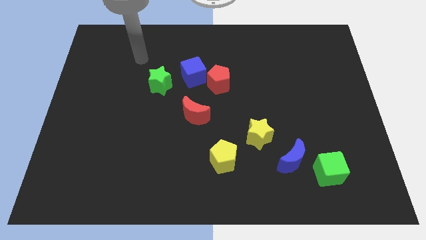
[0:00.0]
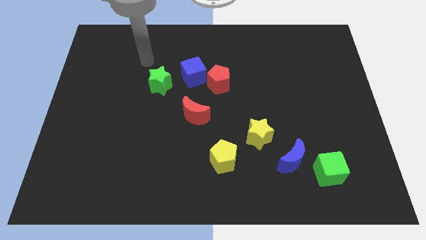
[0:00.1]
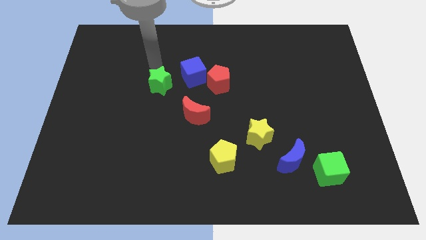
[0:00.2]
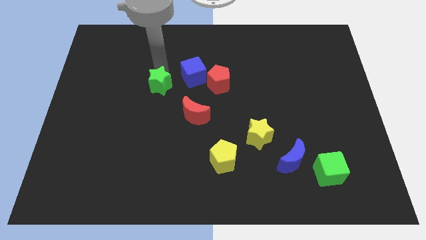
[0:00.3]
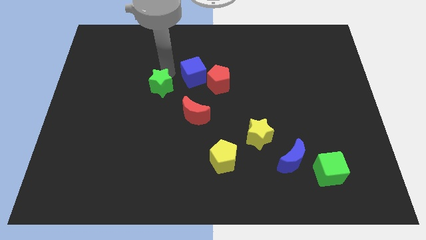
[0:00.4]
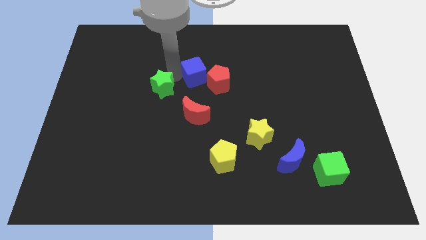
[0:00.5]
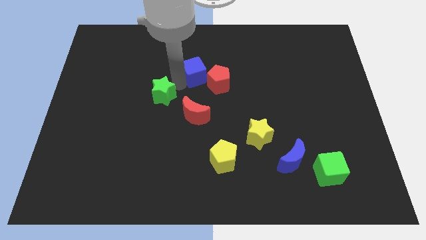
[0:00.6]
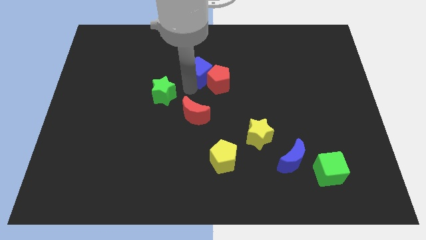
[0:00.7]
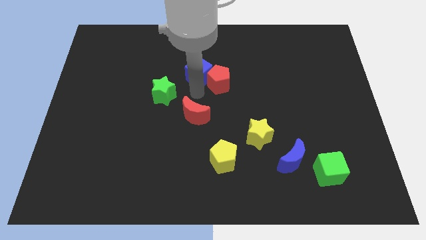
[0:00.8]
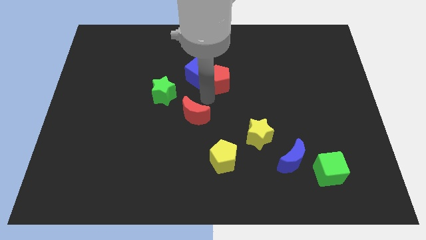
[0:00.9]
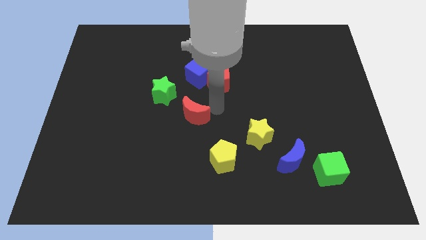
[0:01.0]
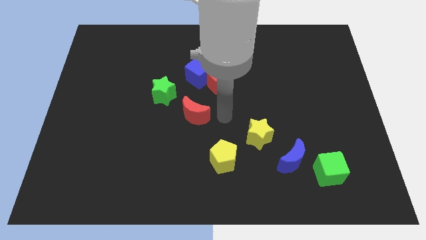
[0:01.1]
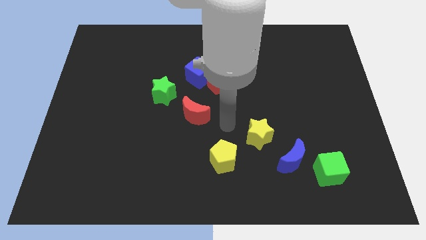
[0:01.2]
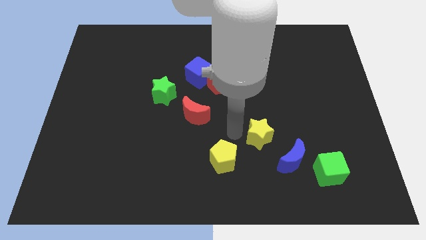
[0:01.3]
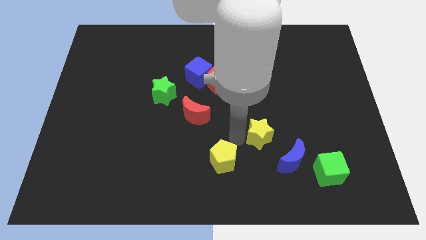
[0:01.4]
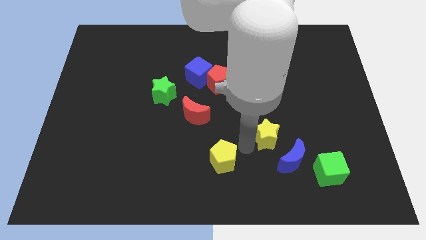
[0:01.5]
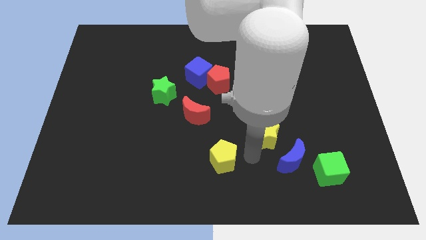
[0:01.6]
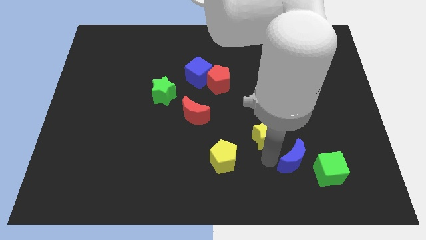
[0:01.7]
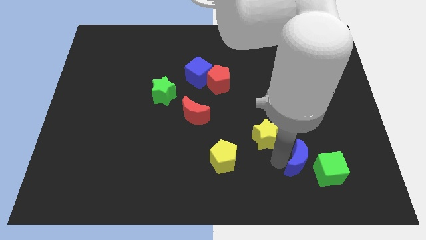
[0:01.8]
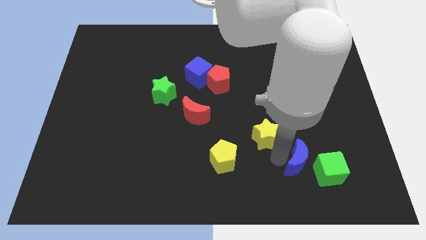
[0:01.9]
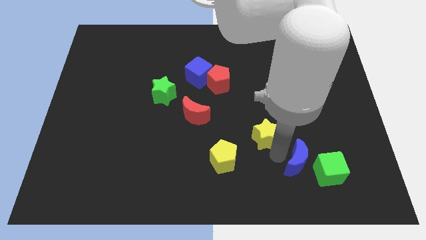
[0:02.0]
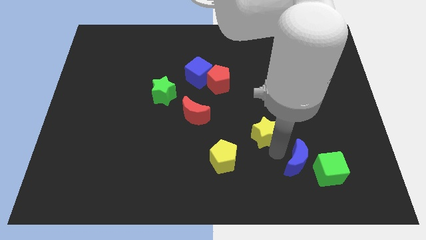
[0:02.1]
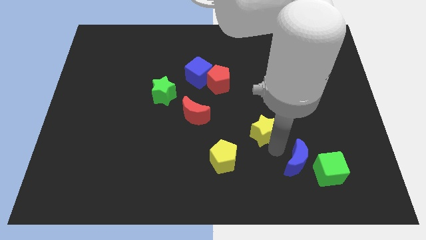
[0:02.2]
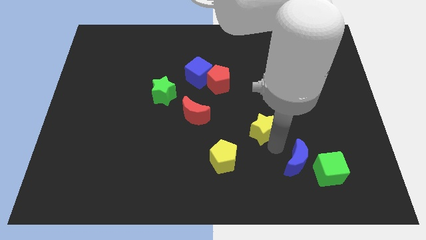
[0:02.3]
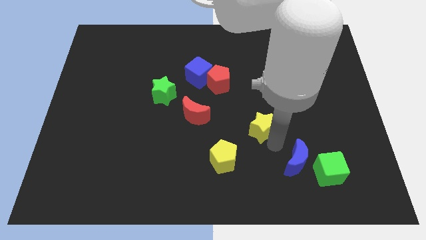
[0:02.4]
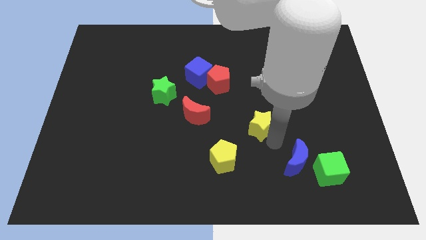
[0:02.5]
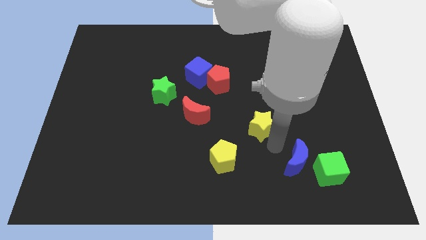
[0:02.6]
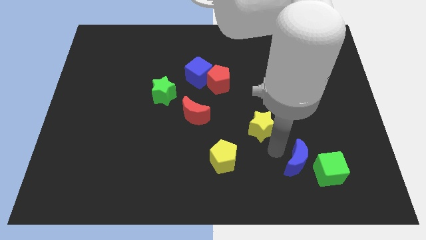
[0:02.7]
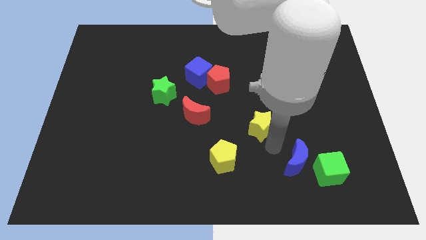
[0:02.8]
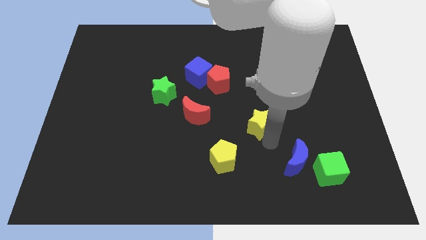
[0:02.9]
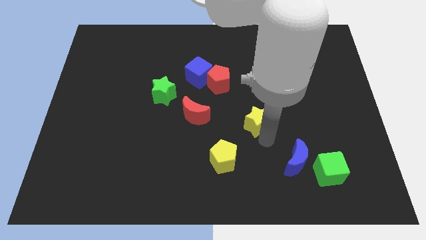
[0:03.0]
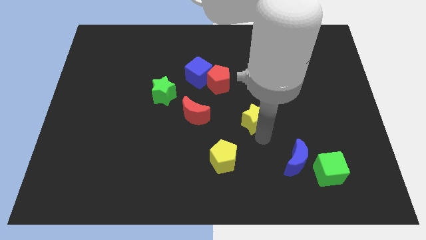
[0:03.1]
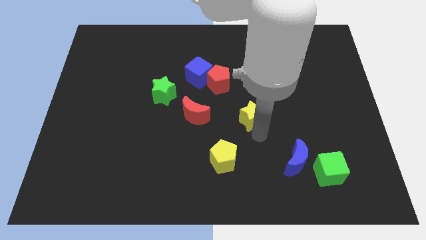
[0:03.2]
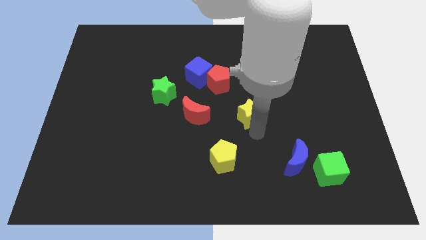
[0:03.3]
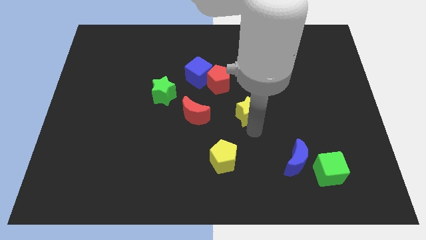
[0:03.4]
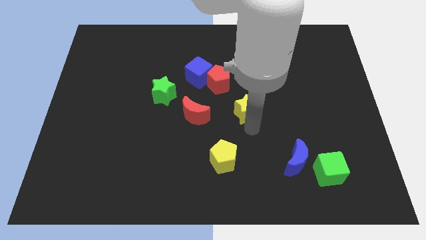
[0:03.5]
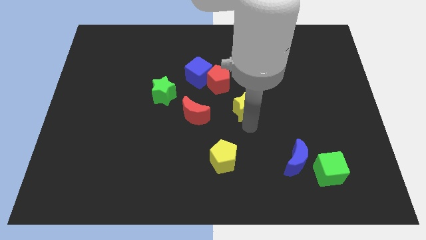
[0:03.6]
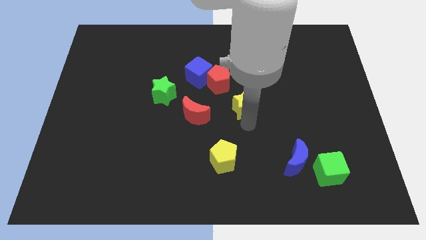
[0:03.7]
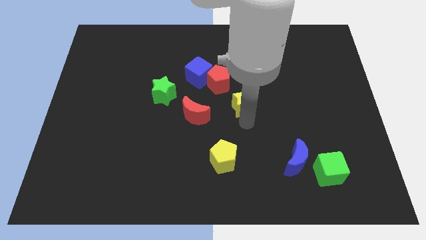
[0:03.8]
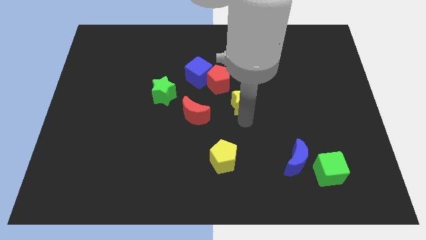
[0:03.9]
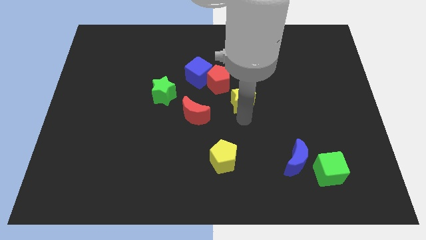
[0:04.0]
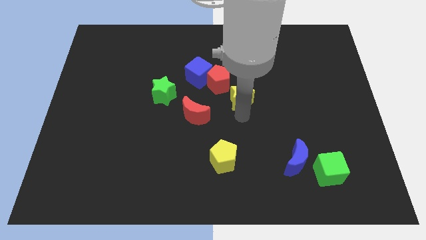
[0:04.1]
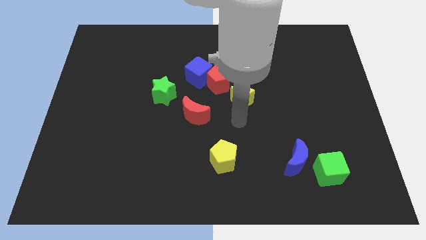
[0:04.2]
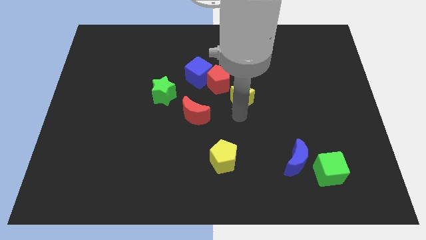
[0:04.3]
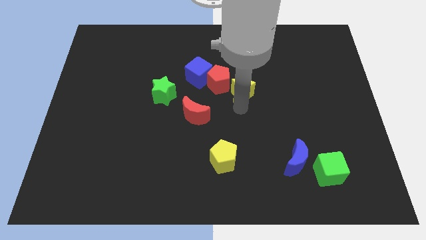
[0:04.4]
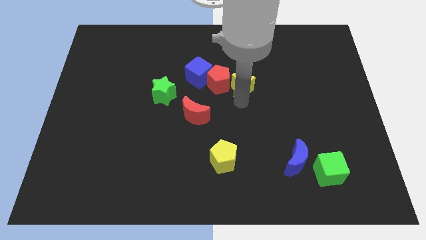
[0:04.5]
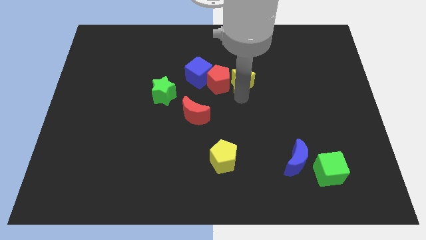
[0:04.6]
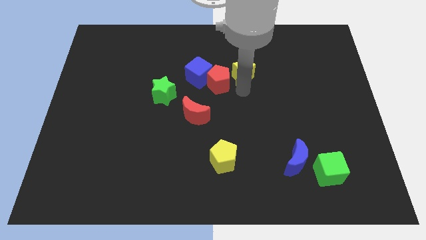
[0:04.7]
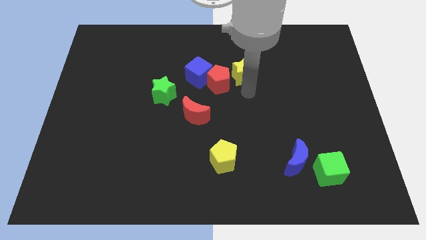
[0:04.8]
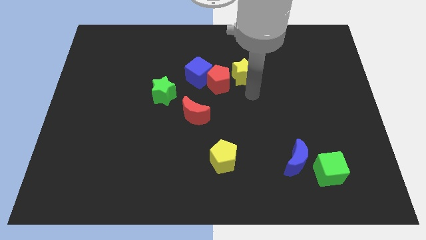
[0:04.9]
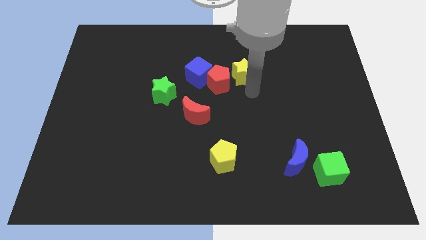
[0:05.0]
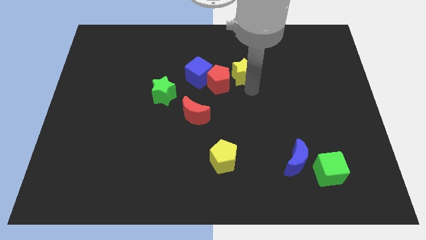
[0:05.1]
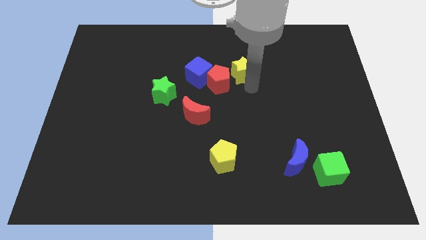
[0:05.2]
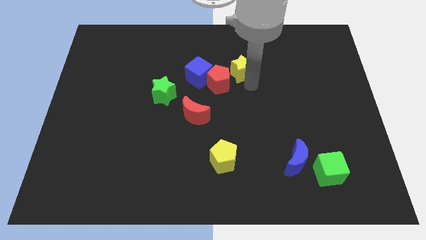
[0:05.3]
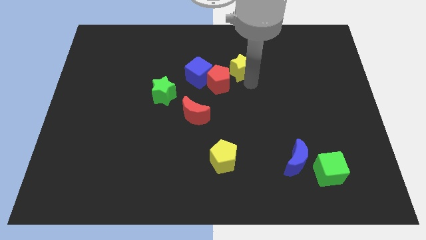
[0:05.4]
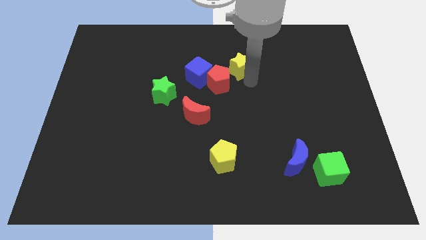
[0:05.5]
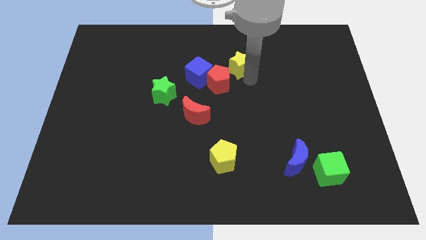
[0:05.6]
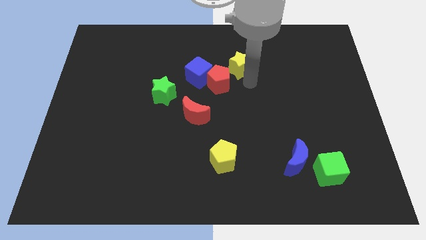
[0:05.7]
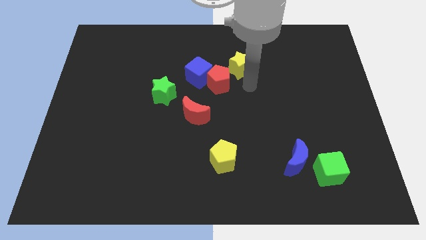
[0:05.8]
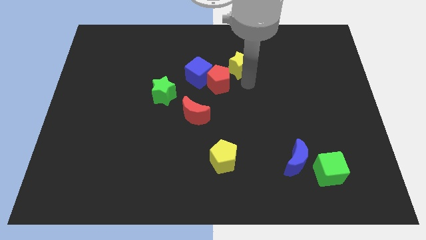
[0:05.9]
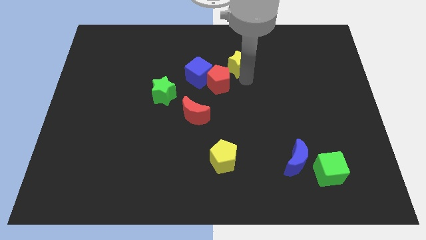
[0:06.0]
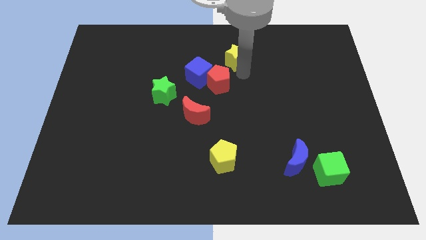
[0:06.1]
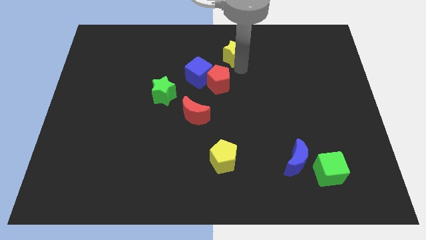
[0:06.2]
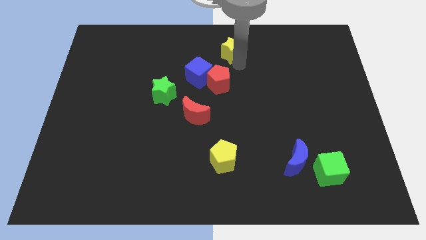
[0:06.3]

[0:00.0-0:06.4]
push the yellow star to the top side
